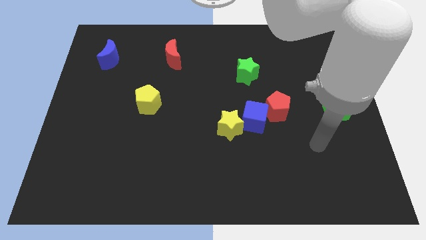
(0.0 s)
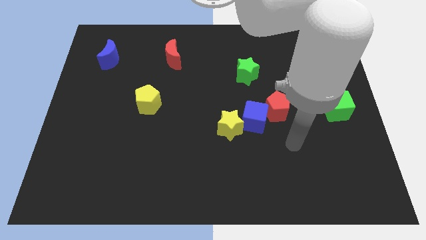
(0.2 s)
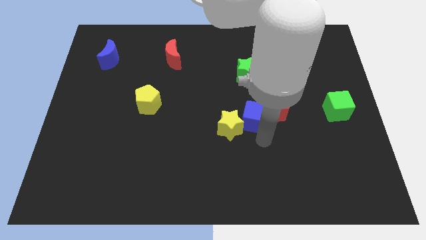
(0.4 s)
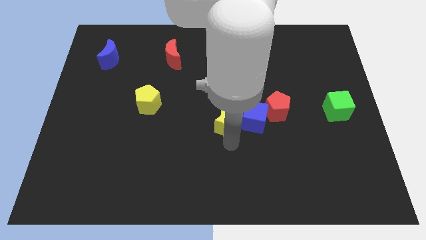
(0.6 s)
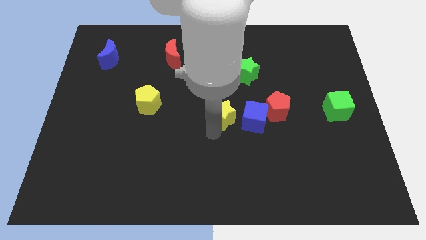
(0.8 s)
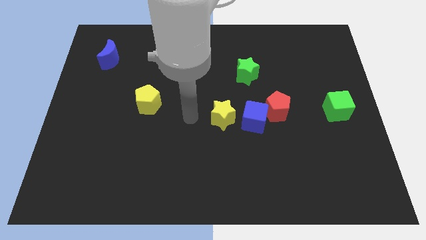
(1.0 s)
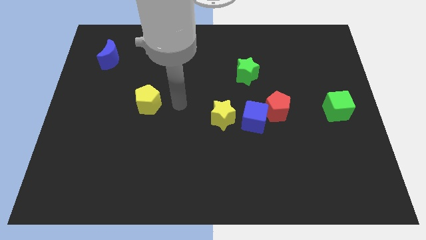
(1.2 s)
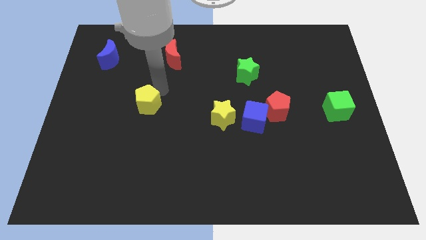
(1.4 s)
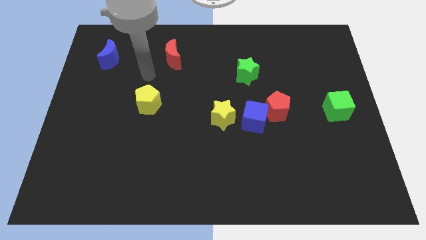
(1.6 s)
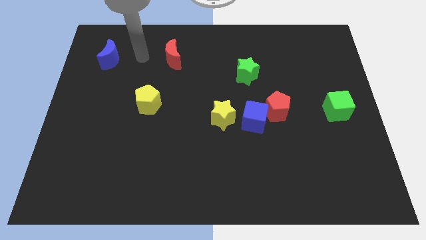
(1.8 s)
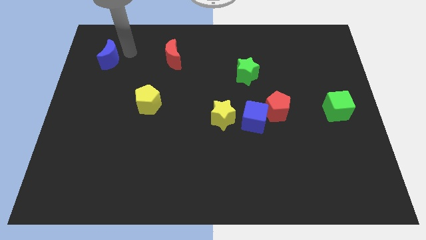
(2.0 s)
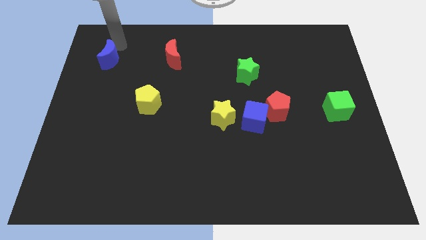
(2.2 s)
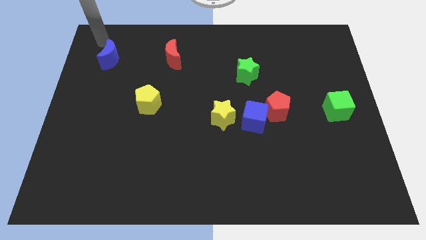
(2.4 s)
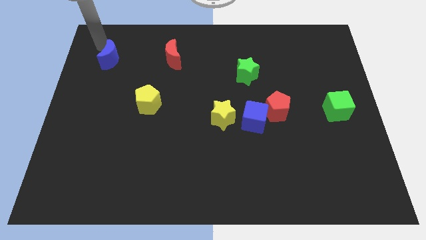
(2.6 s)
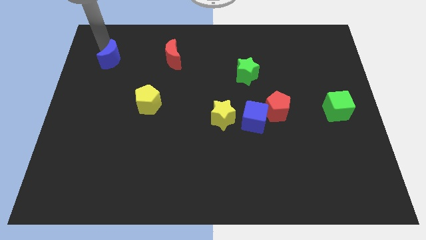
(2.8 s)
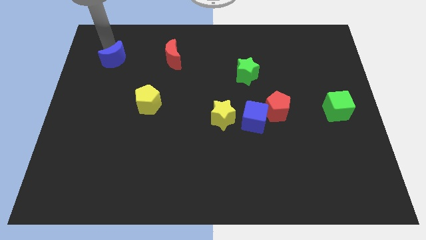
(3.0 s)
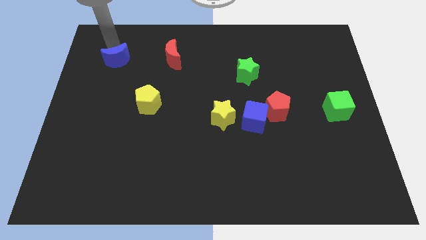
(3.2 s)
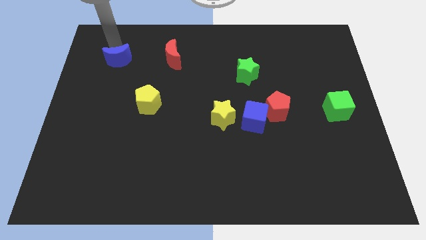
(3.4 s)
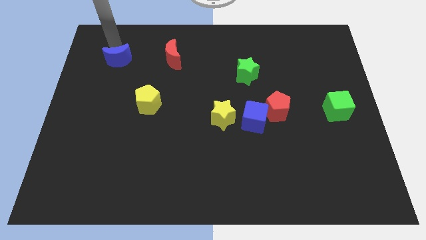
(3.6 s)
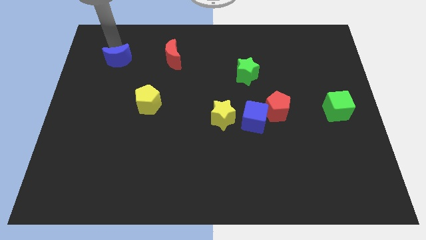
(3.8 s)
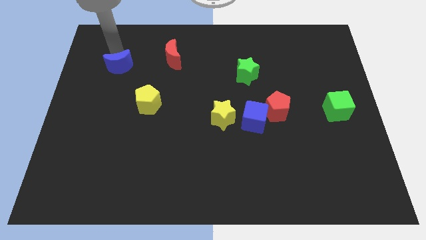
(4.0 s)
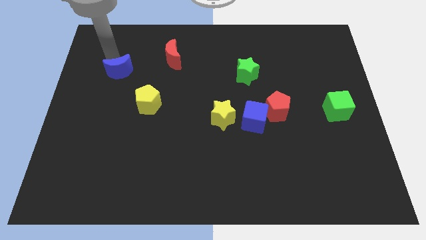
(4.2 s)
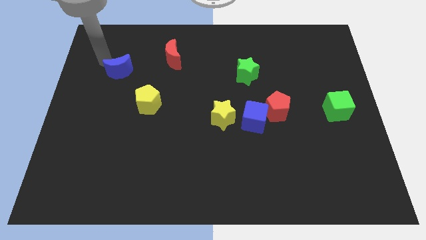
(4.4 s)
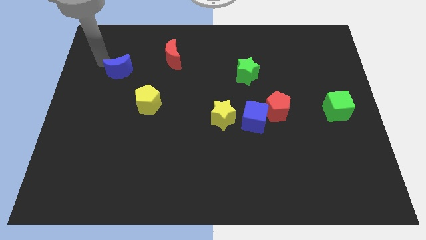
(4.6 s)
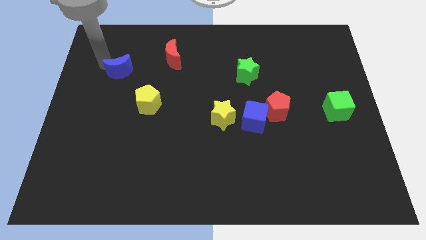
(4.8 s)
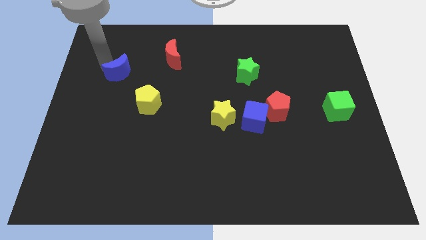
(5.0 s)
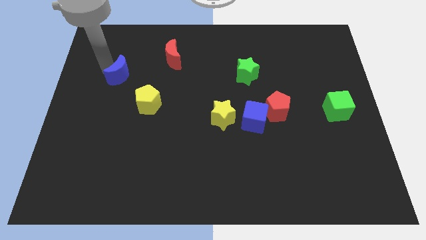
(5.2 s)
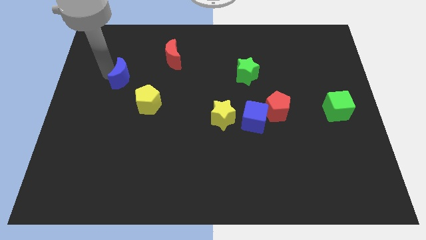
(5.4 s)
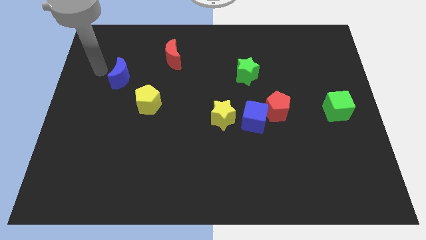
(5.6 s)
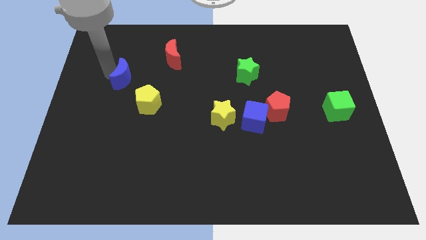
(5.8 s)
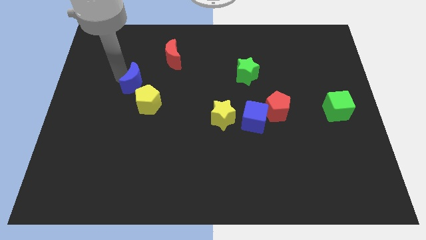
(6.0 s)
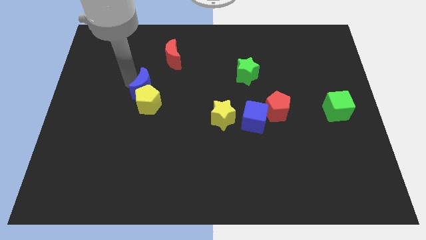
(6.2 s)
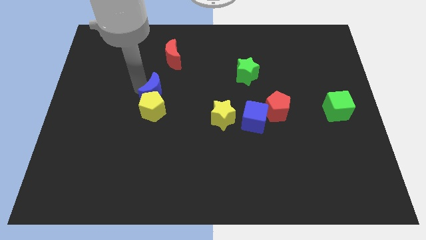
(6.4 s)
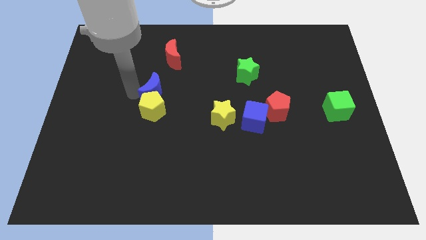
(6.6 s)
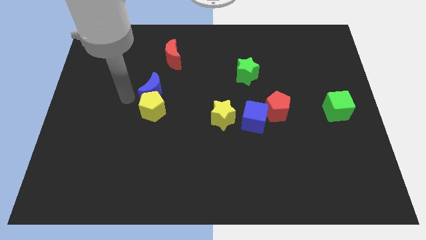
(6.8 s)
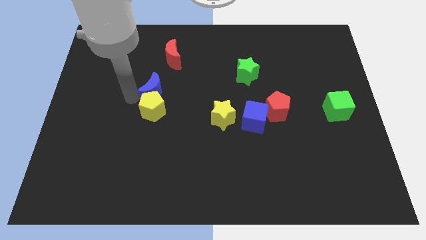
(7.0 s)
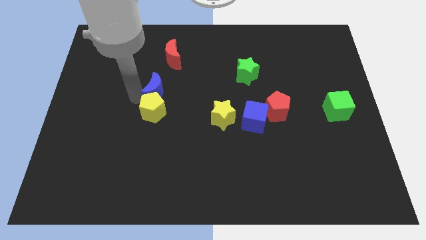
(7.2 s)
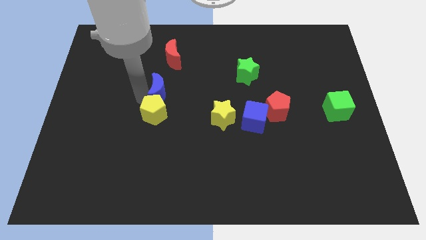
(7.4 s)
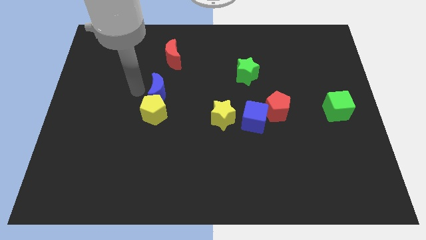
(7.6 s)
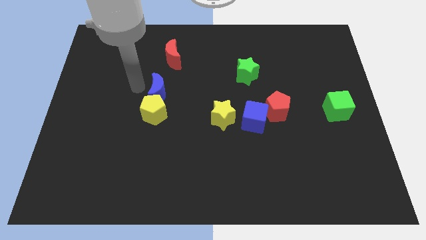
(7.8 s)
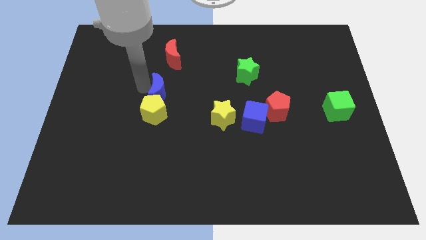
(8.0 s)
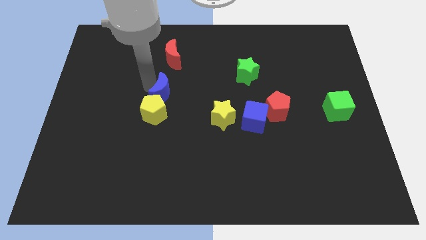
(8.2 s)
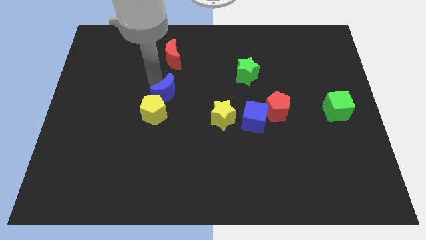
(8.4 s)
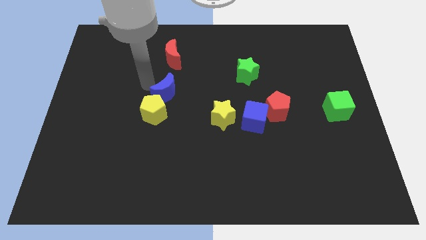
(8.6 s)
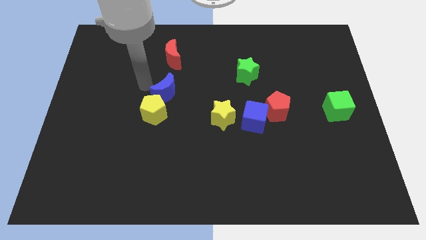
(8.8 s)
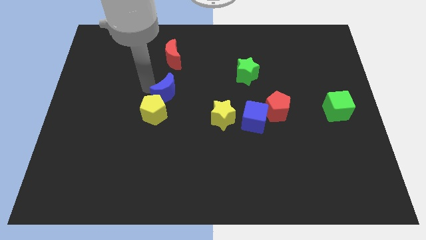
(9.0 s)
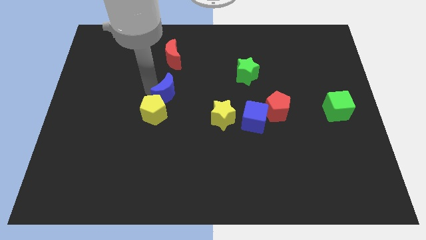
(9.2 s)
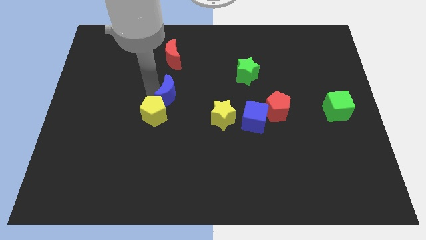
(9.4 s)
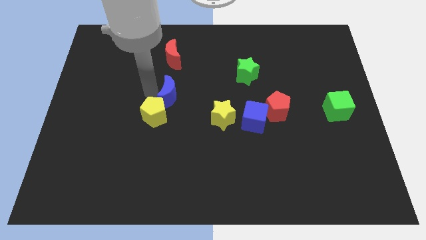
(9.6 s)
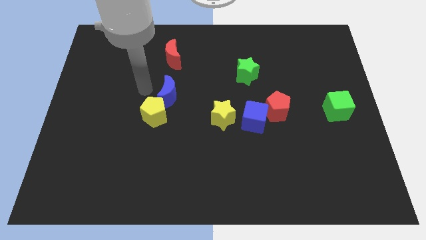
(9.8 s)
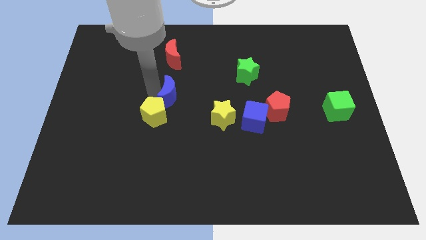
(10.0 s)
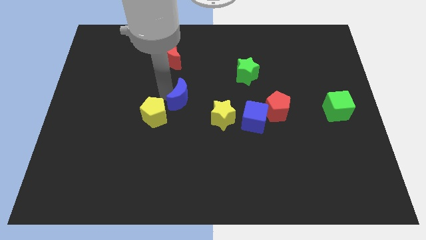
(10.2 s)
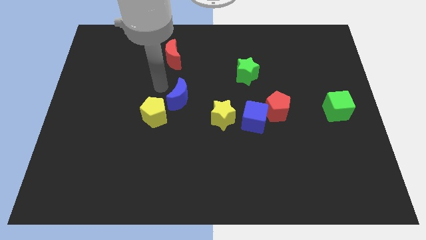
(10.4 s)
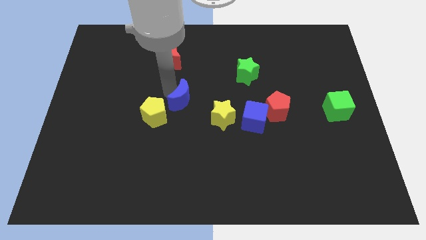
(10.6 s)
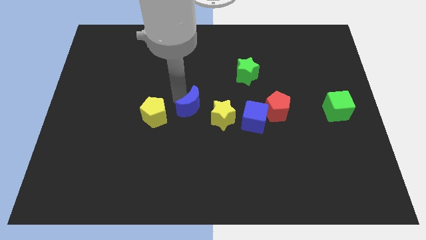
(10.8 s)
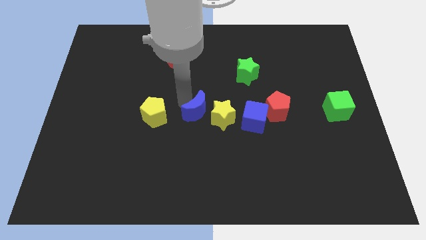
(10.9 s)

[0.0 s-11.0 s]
push the blue moon close to the yellow star

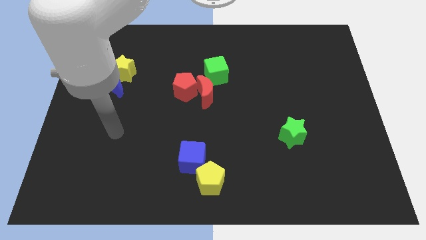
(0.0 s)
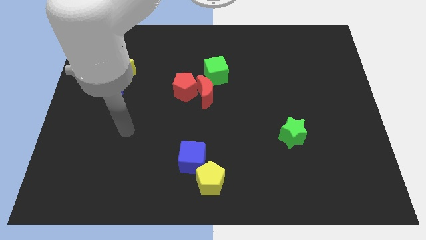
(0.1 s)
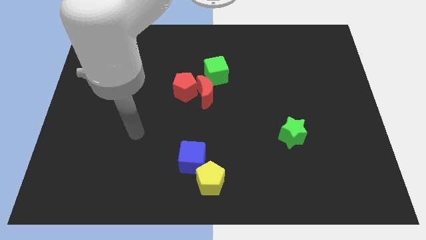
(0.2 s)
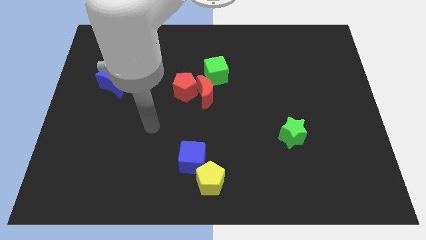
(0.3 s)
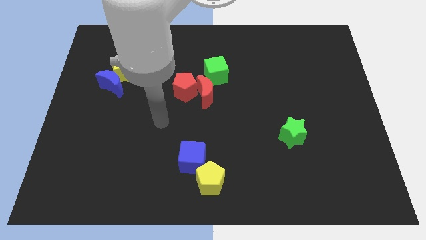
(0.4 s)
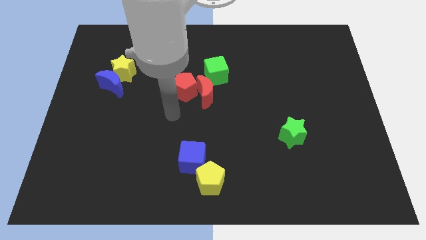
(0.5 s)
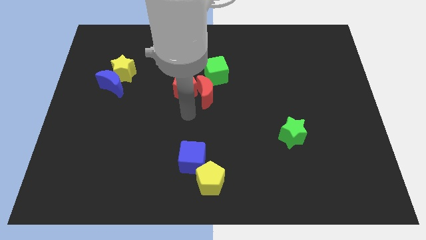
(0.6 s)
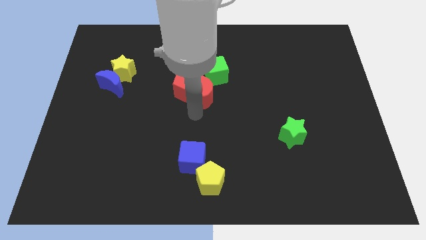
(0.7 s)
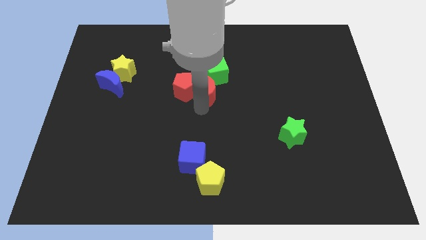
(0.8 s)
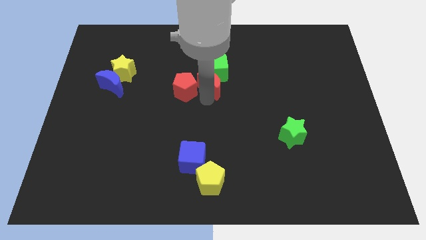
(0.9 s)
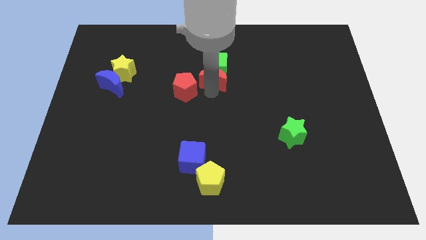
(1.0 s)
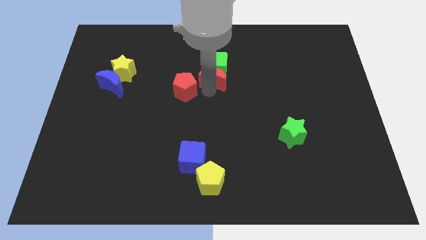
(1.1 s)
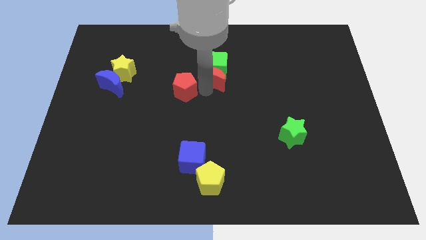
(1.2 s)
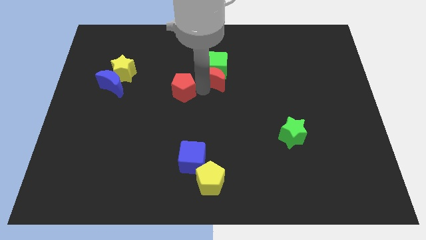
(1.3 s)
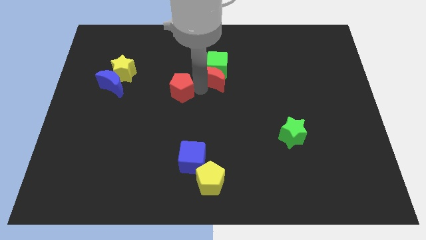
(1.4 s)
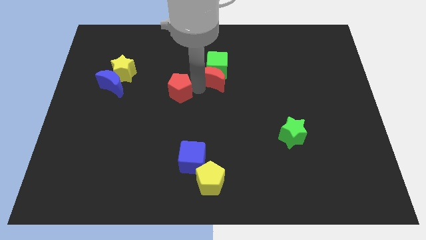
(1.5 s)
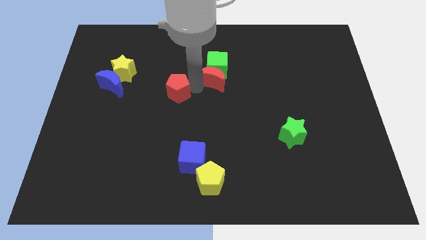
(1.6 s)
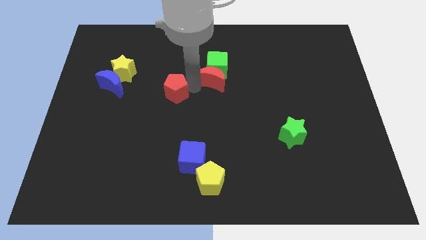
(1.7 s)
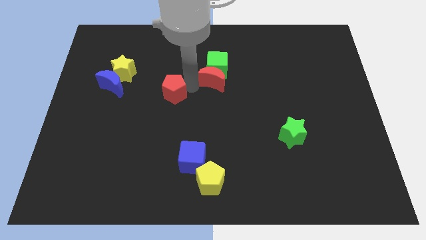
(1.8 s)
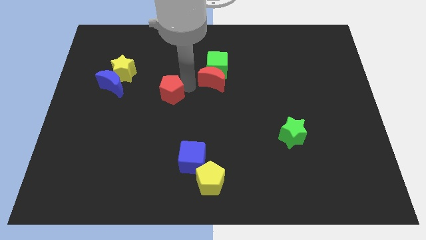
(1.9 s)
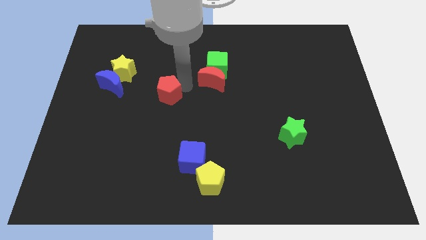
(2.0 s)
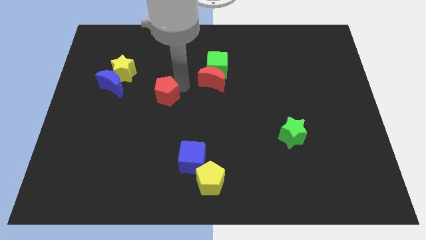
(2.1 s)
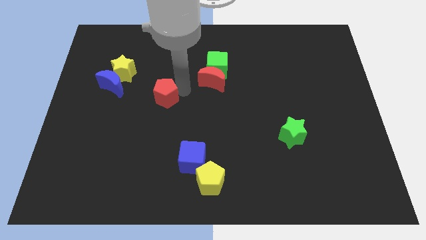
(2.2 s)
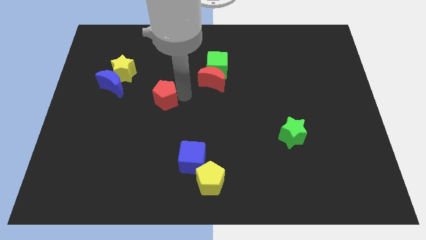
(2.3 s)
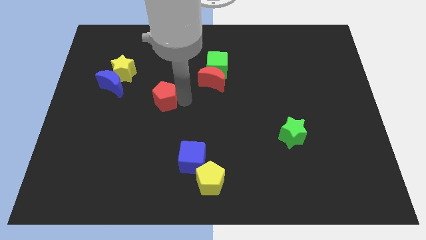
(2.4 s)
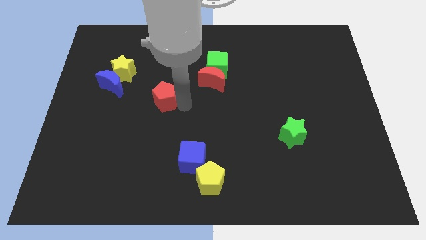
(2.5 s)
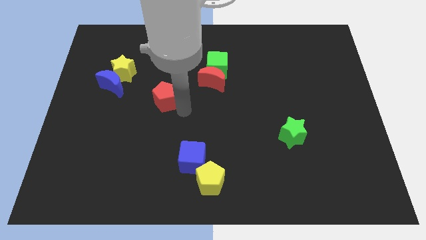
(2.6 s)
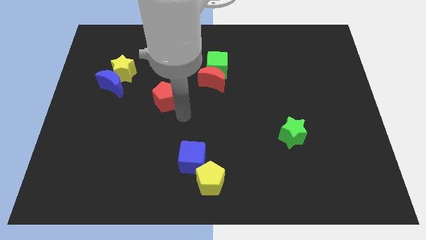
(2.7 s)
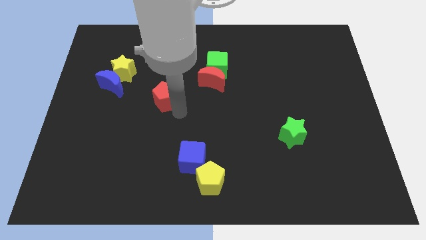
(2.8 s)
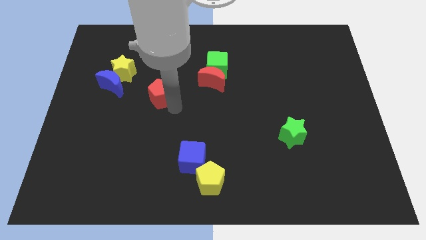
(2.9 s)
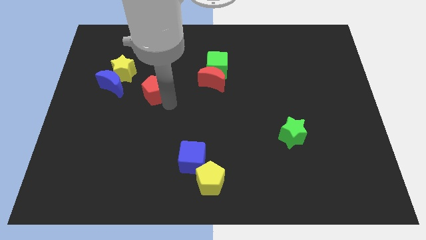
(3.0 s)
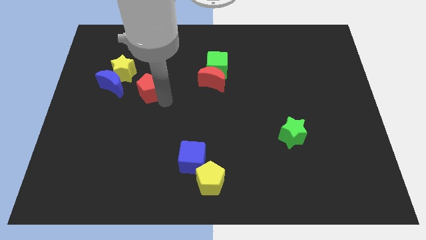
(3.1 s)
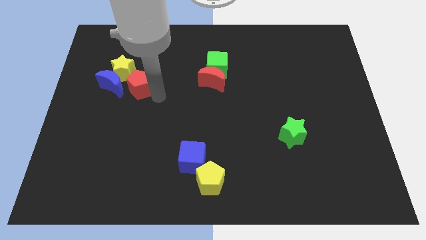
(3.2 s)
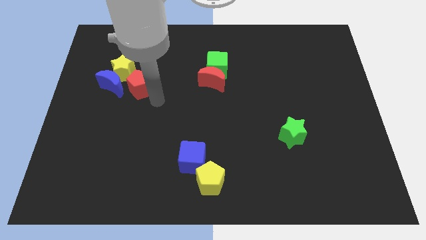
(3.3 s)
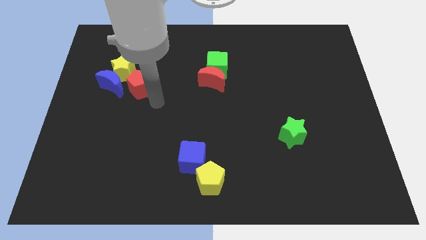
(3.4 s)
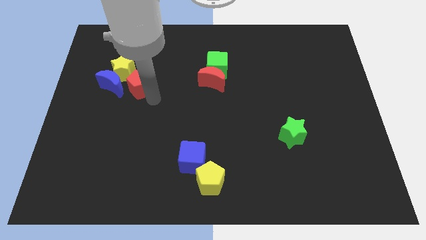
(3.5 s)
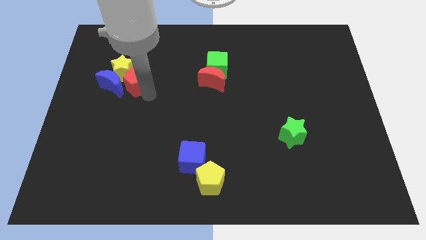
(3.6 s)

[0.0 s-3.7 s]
push the red pentagon next to the yellow star
